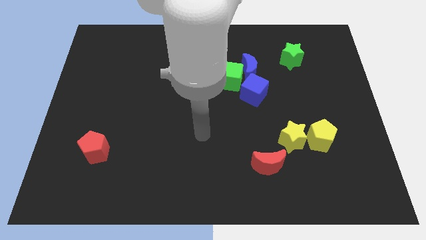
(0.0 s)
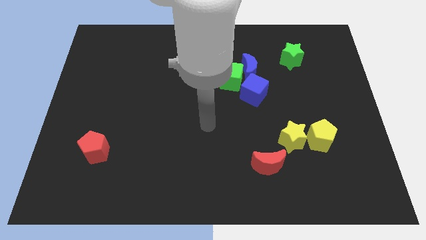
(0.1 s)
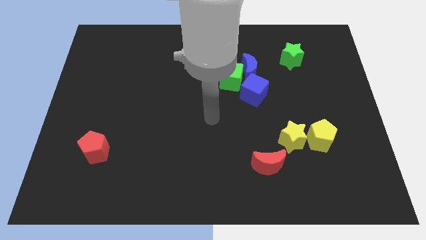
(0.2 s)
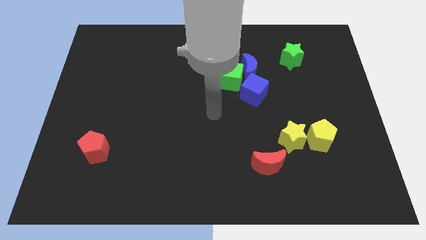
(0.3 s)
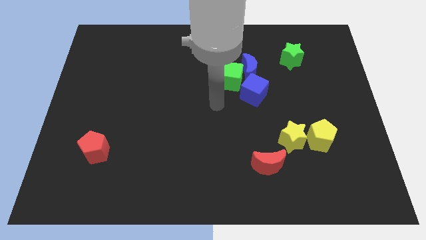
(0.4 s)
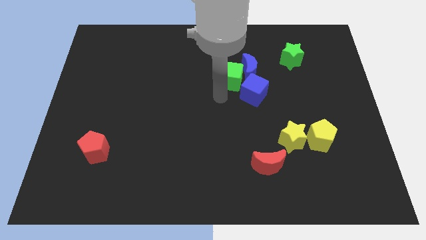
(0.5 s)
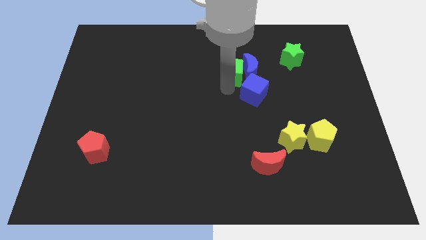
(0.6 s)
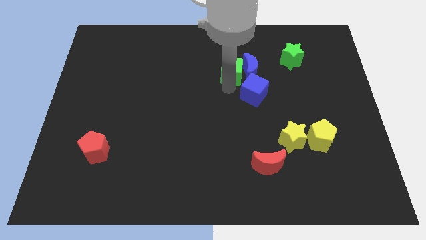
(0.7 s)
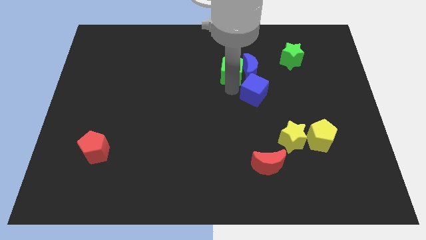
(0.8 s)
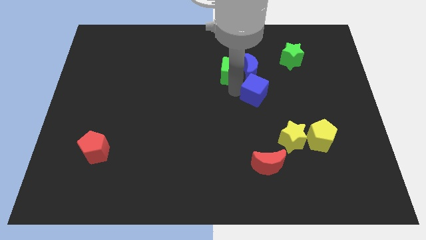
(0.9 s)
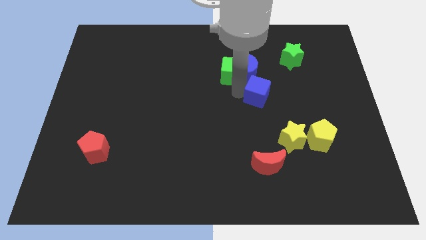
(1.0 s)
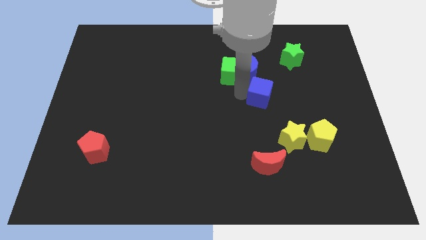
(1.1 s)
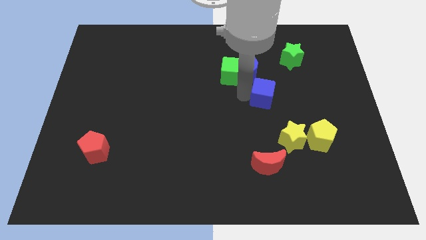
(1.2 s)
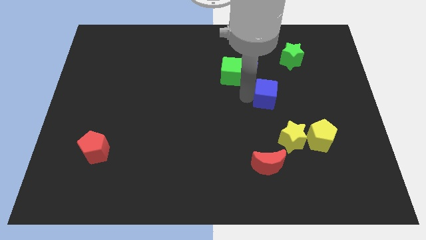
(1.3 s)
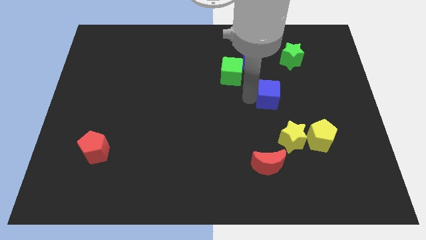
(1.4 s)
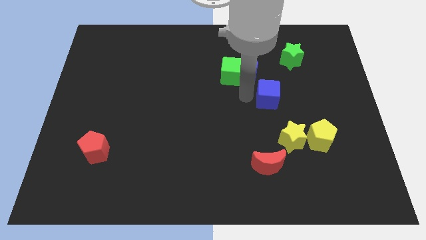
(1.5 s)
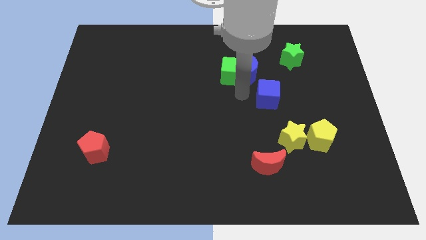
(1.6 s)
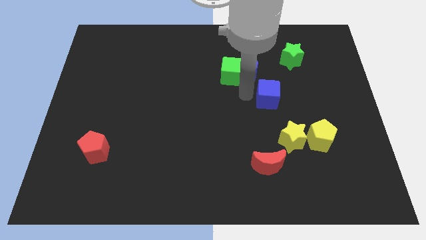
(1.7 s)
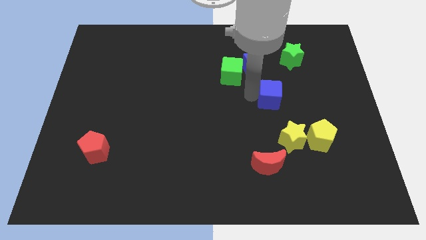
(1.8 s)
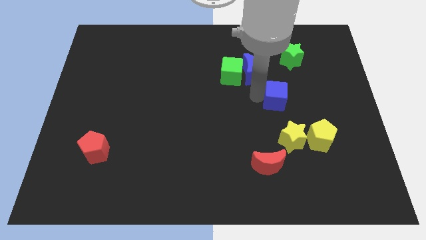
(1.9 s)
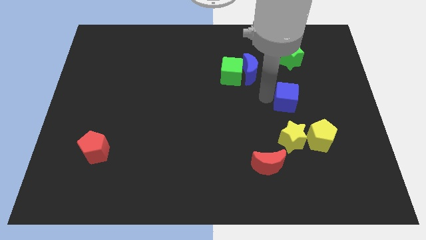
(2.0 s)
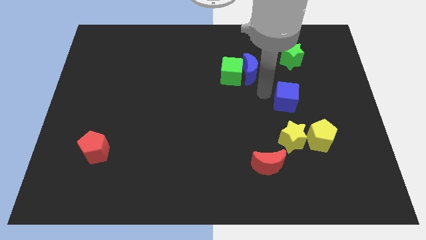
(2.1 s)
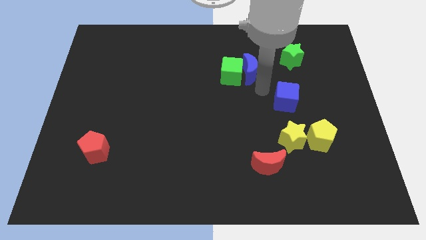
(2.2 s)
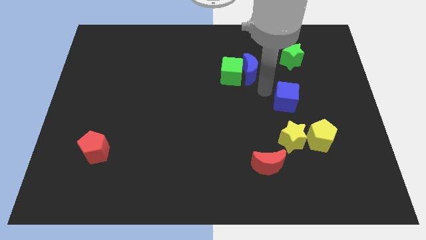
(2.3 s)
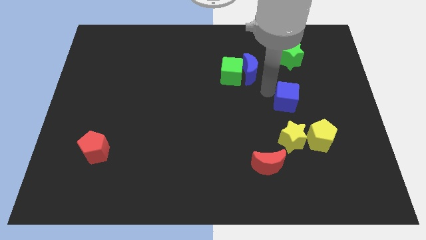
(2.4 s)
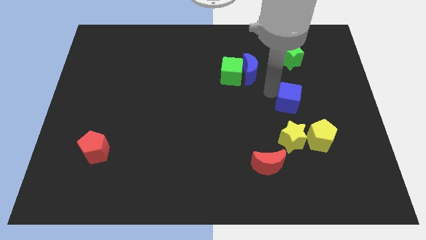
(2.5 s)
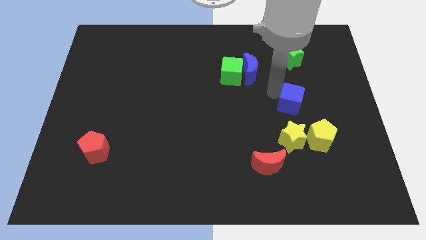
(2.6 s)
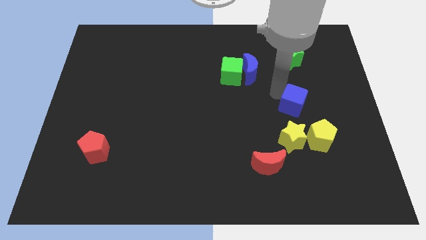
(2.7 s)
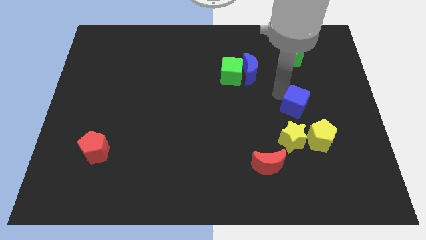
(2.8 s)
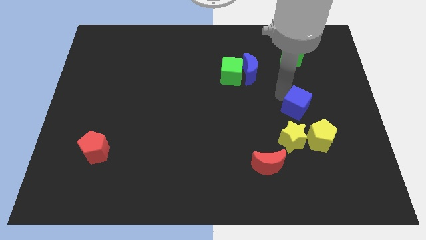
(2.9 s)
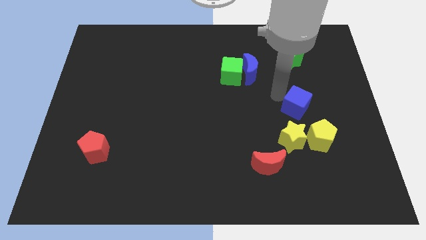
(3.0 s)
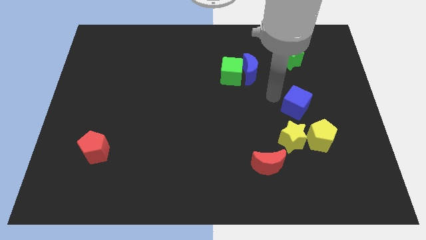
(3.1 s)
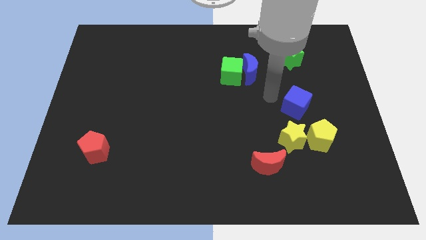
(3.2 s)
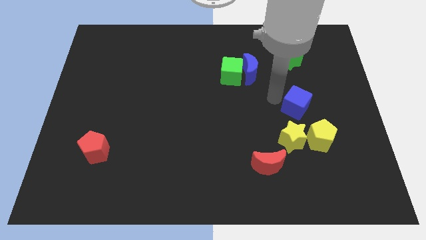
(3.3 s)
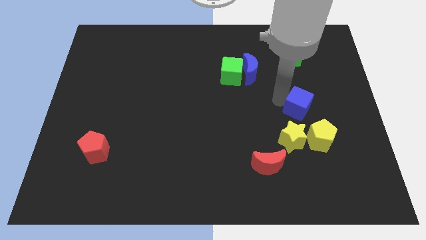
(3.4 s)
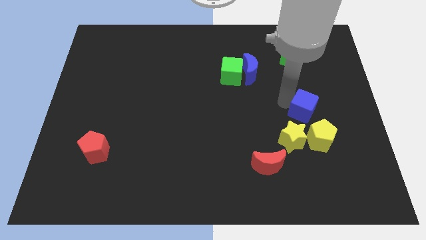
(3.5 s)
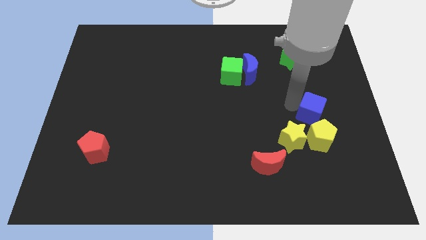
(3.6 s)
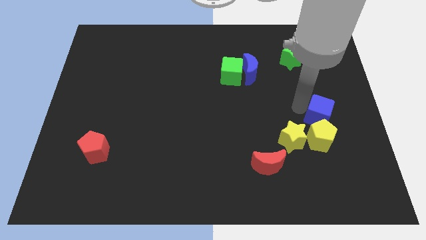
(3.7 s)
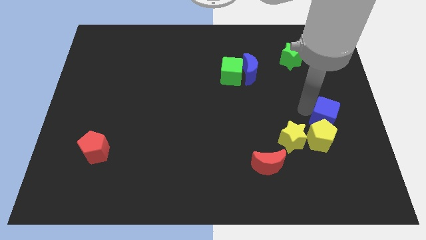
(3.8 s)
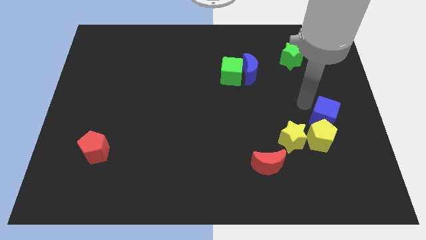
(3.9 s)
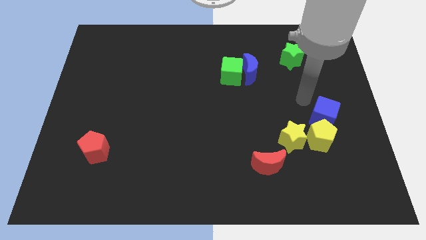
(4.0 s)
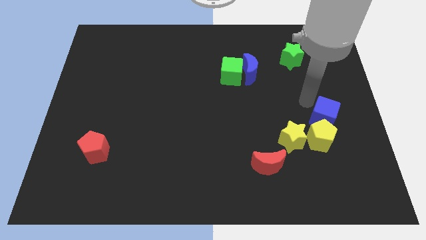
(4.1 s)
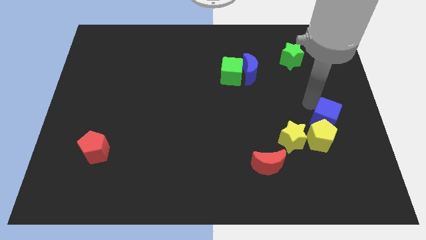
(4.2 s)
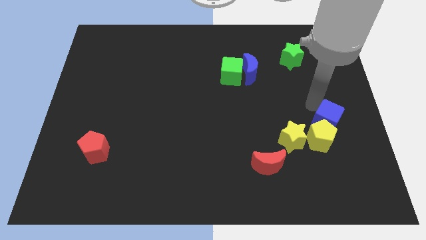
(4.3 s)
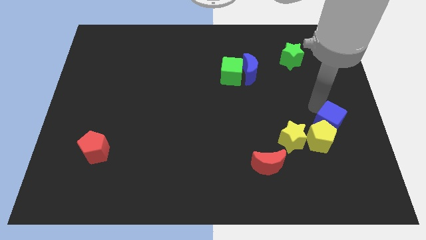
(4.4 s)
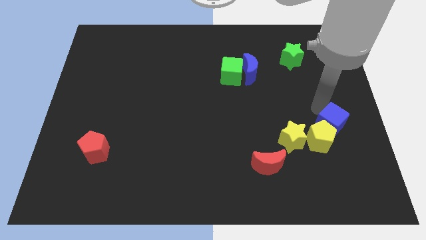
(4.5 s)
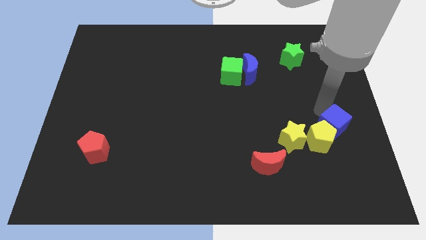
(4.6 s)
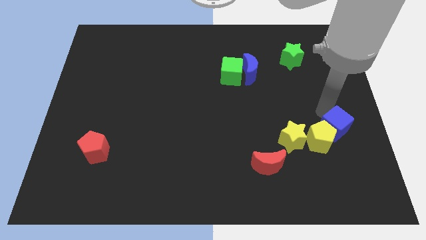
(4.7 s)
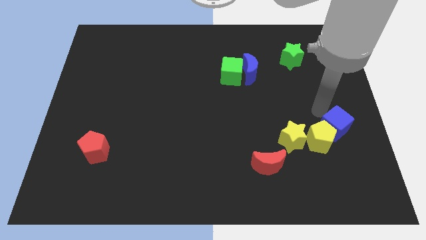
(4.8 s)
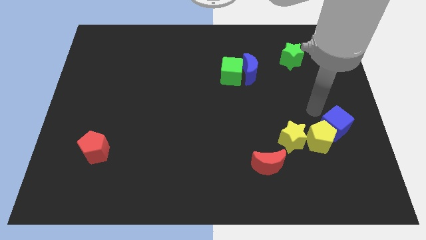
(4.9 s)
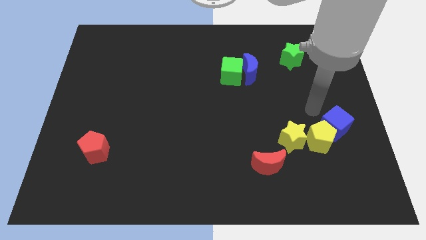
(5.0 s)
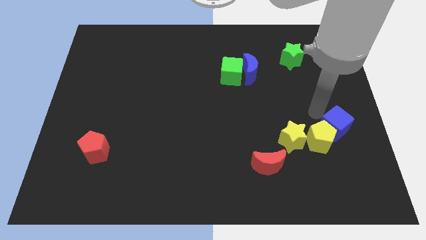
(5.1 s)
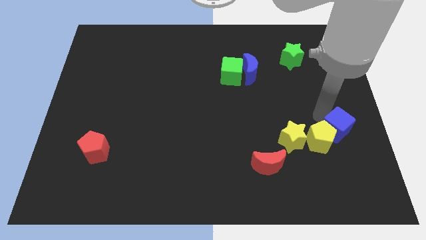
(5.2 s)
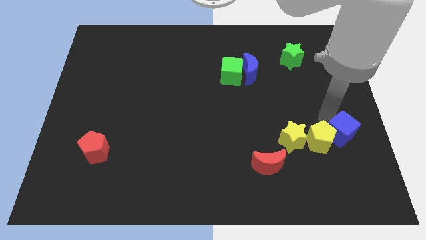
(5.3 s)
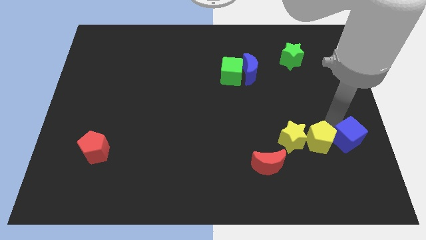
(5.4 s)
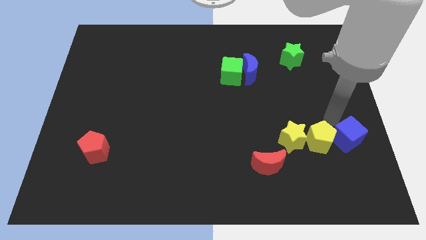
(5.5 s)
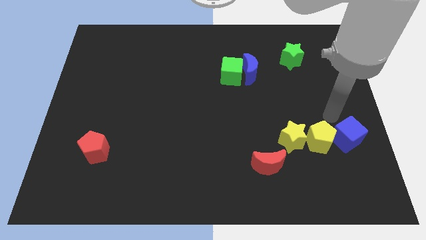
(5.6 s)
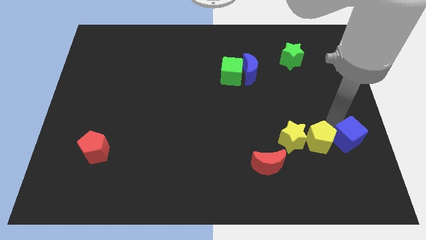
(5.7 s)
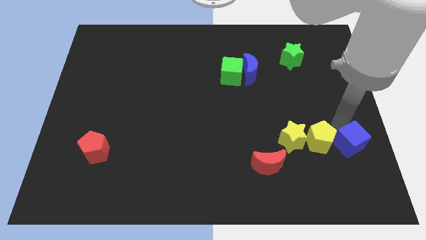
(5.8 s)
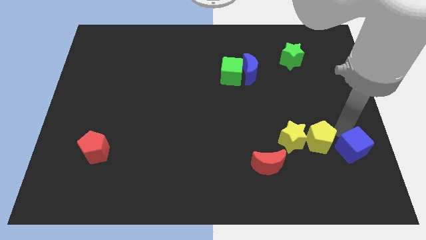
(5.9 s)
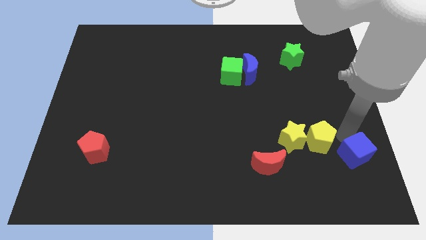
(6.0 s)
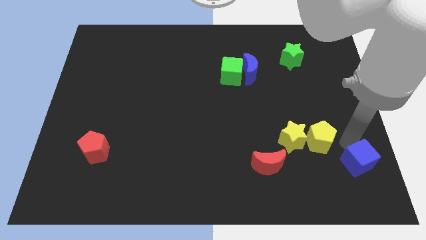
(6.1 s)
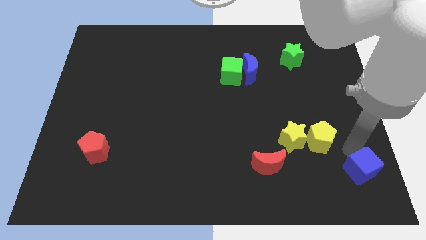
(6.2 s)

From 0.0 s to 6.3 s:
put the blue cube to the lower right corner

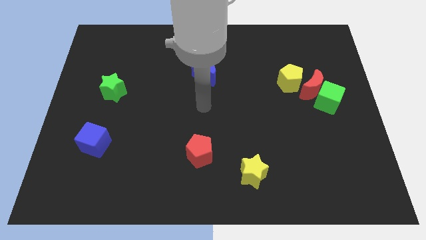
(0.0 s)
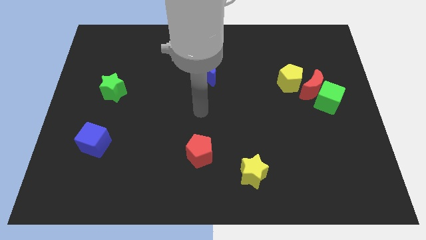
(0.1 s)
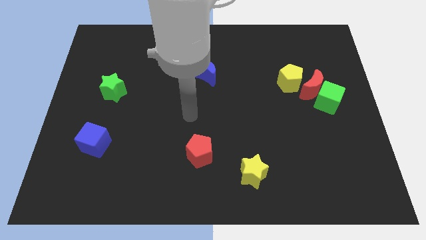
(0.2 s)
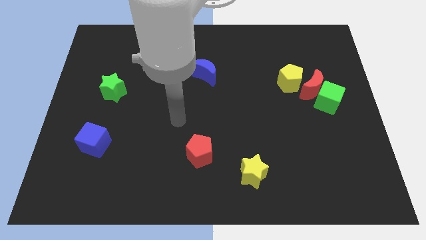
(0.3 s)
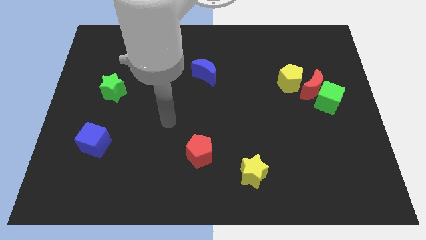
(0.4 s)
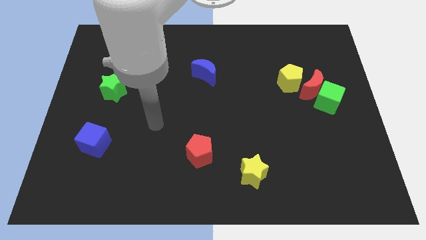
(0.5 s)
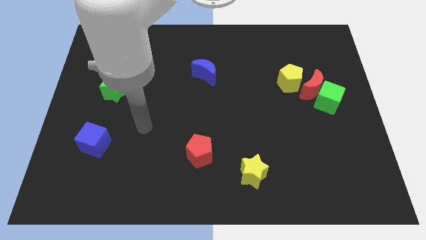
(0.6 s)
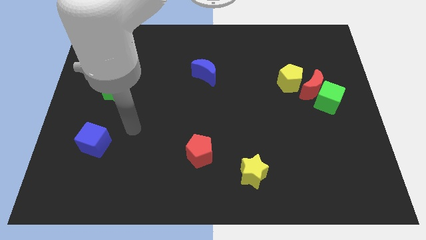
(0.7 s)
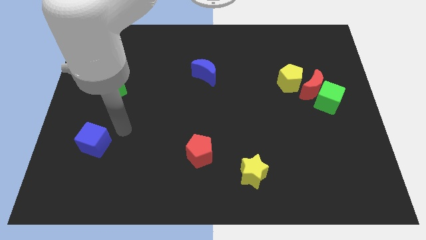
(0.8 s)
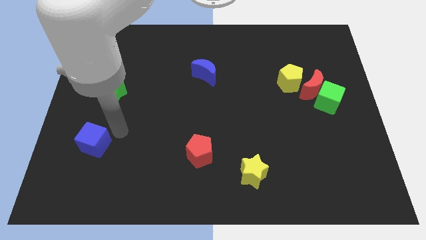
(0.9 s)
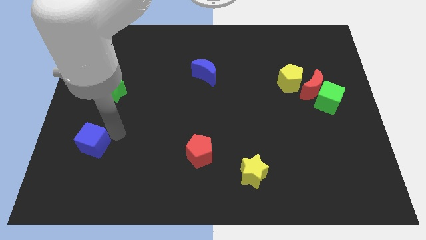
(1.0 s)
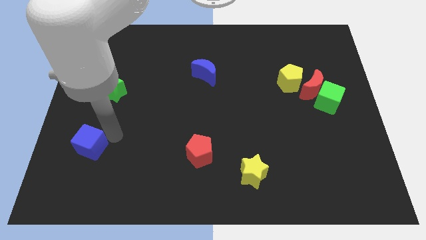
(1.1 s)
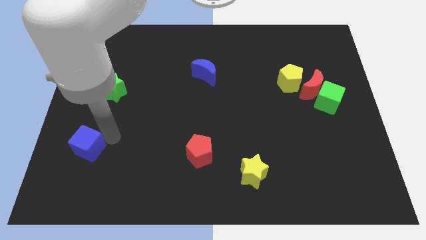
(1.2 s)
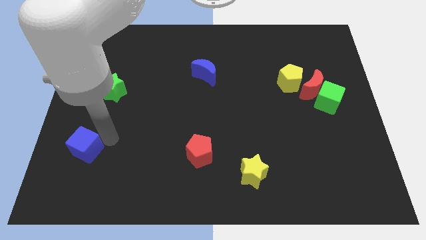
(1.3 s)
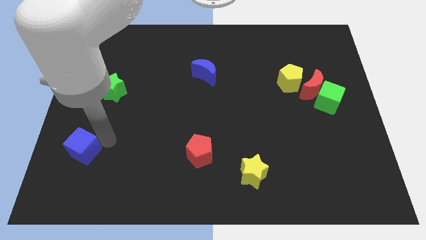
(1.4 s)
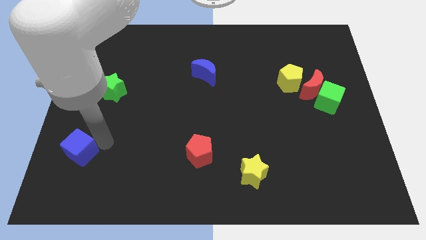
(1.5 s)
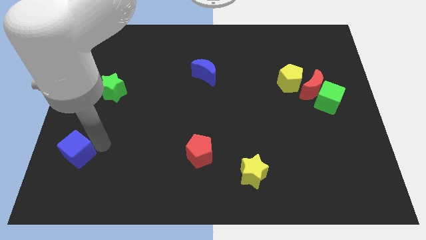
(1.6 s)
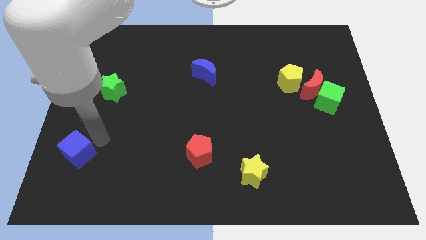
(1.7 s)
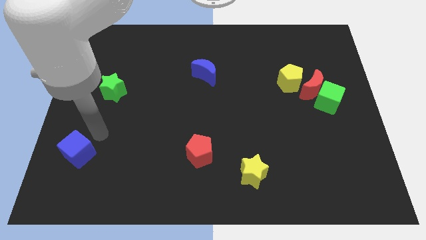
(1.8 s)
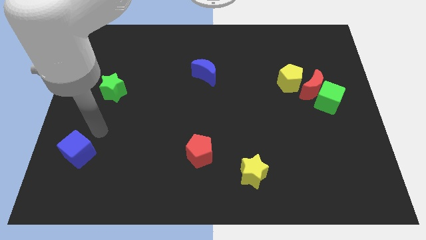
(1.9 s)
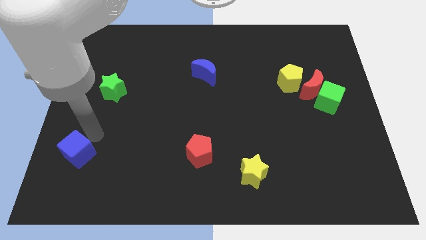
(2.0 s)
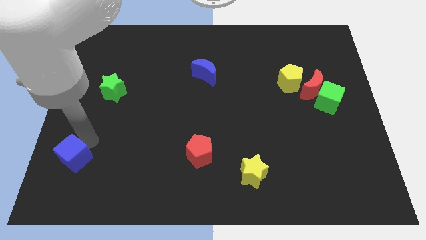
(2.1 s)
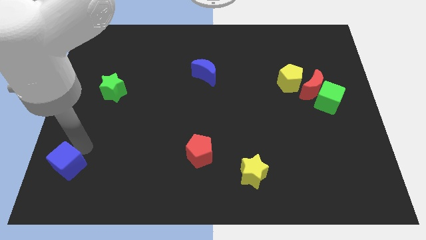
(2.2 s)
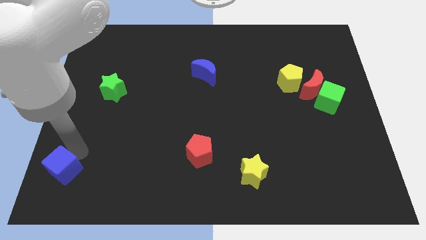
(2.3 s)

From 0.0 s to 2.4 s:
put the blue cube to the bottom left corner
